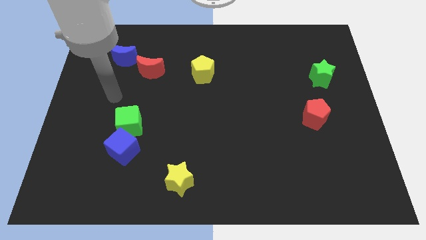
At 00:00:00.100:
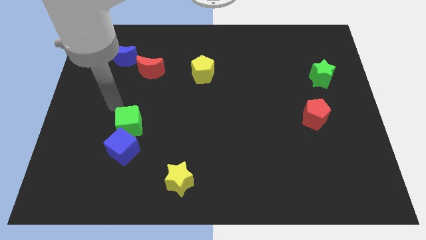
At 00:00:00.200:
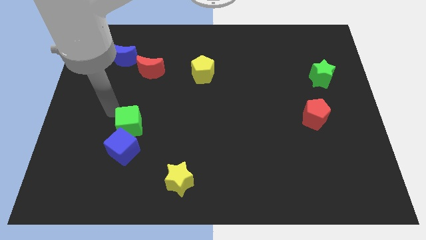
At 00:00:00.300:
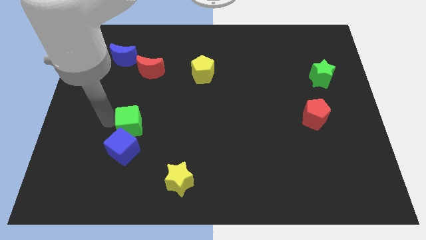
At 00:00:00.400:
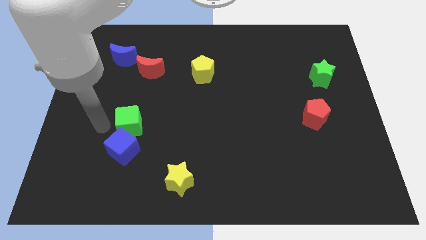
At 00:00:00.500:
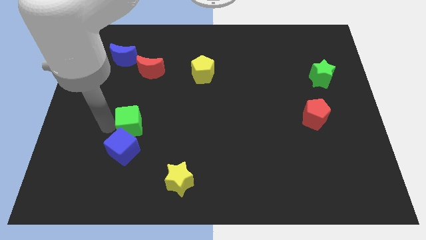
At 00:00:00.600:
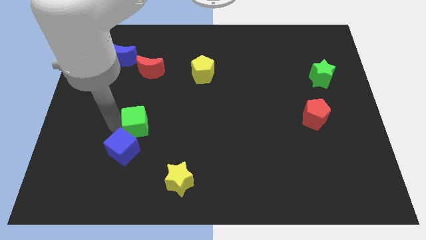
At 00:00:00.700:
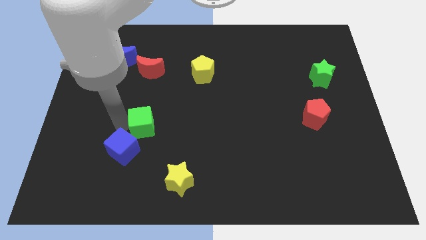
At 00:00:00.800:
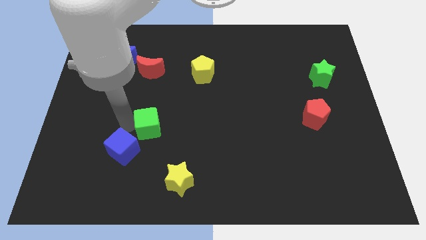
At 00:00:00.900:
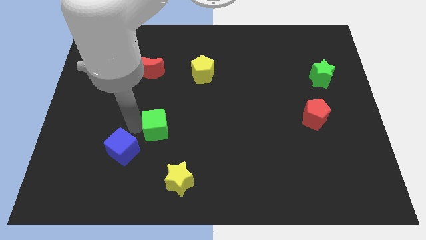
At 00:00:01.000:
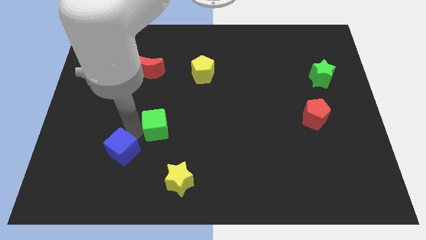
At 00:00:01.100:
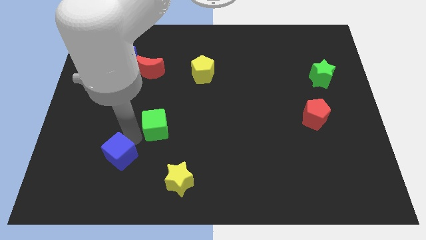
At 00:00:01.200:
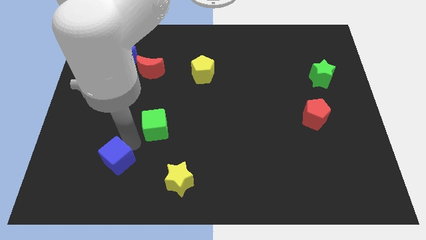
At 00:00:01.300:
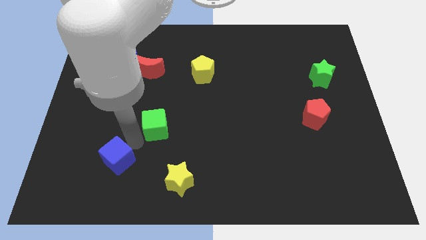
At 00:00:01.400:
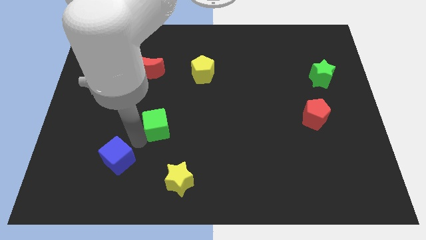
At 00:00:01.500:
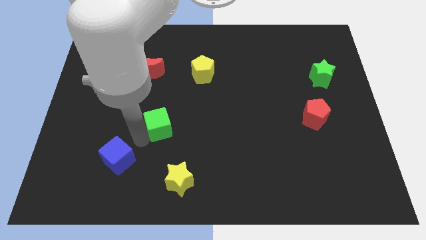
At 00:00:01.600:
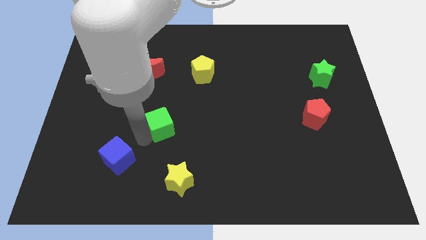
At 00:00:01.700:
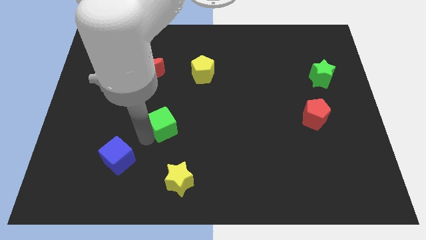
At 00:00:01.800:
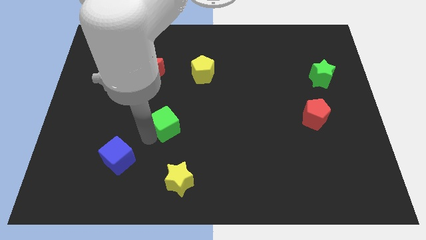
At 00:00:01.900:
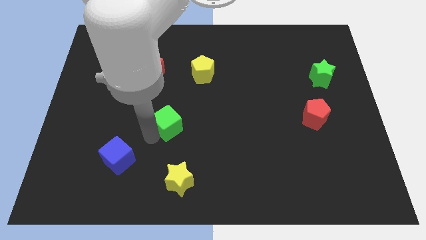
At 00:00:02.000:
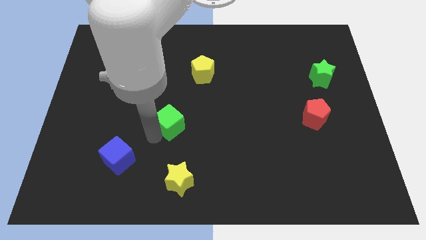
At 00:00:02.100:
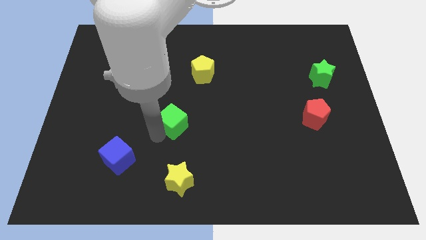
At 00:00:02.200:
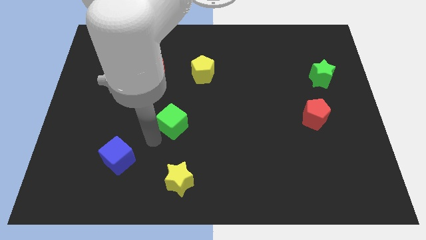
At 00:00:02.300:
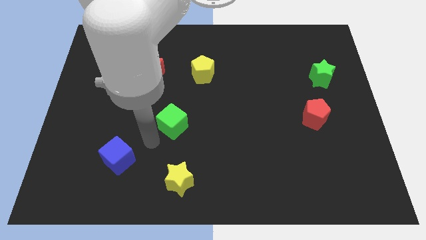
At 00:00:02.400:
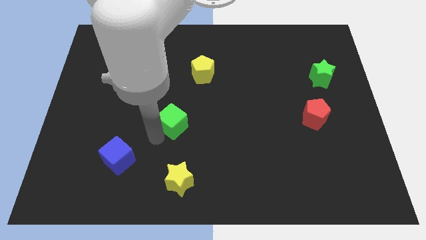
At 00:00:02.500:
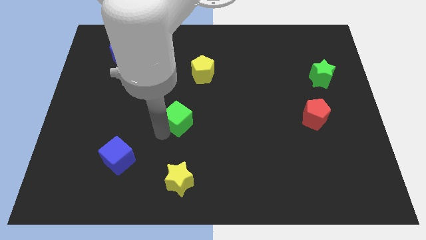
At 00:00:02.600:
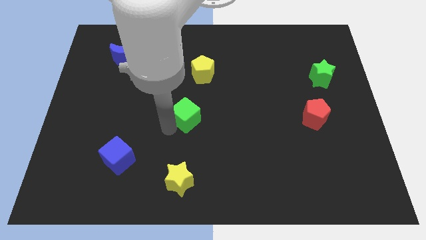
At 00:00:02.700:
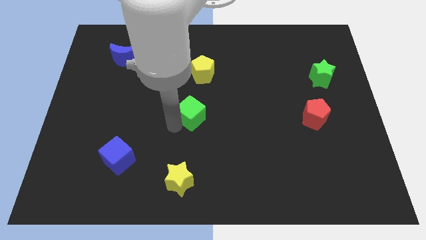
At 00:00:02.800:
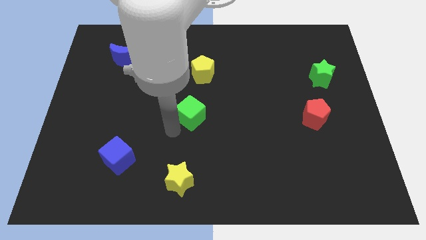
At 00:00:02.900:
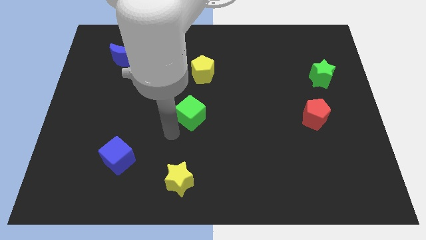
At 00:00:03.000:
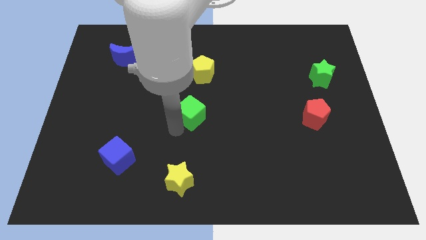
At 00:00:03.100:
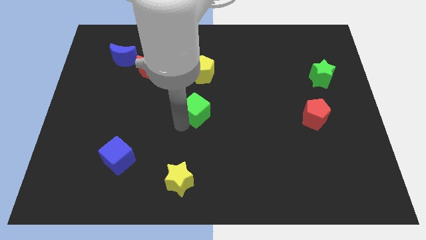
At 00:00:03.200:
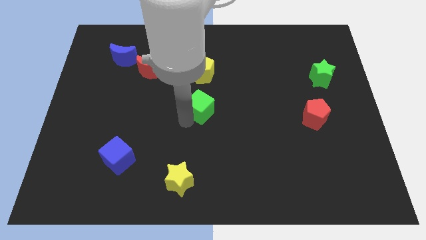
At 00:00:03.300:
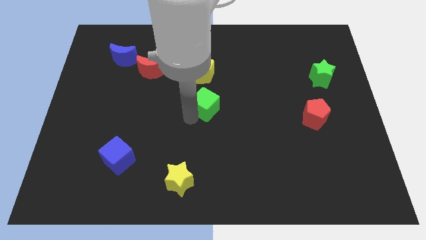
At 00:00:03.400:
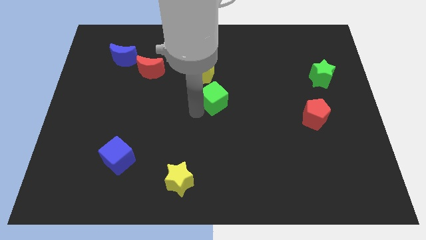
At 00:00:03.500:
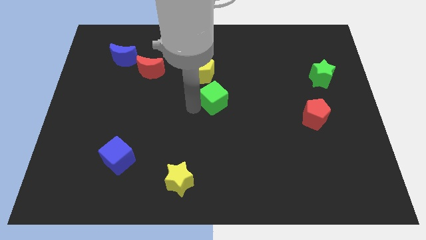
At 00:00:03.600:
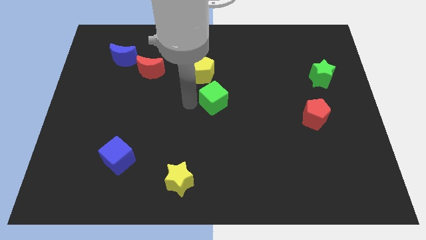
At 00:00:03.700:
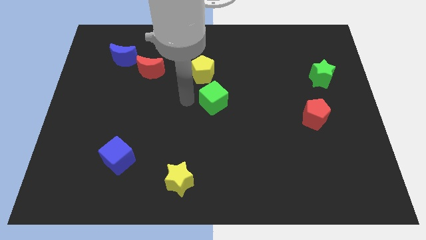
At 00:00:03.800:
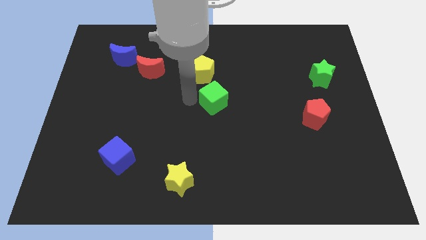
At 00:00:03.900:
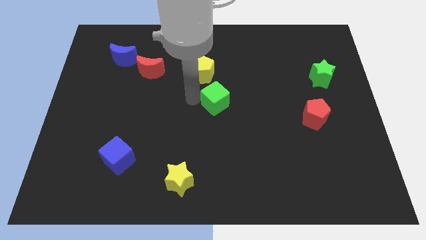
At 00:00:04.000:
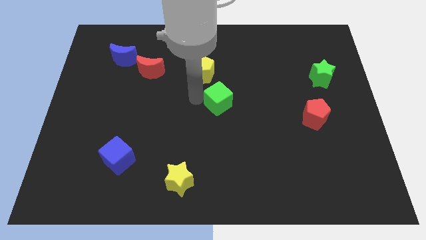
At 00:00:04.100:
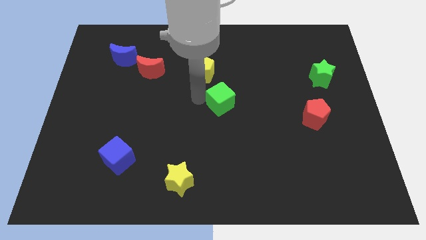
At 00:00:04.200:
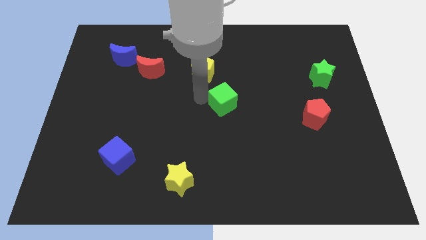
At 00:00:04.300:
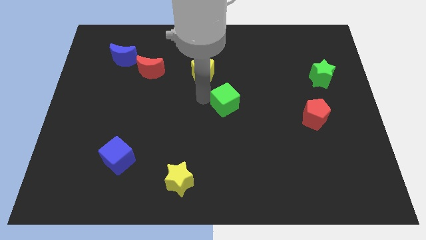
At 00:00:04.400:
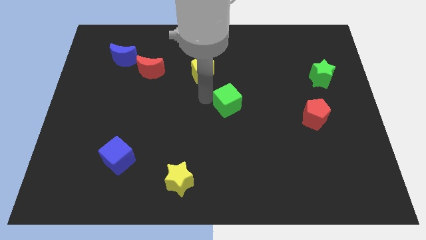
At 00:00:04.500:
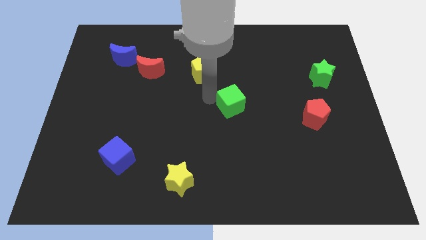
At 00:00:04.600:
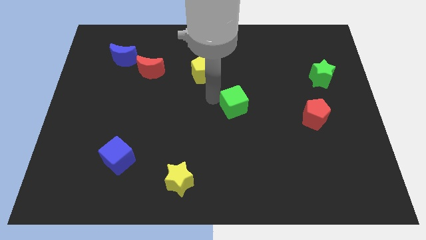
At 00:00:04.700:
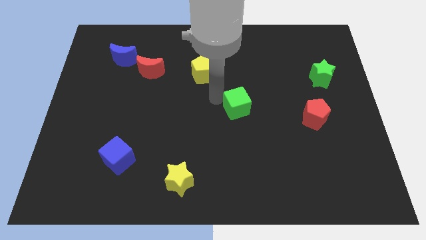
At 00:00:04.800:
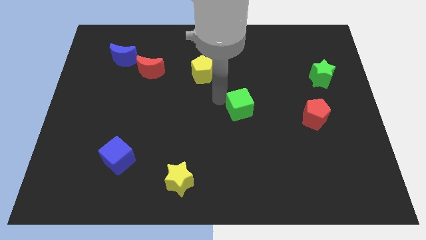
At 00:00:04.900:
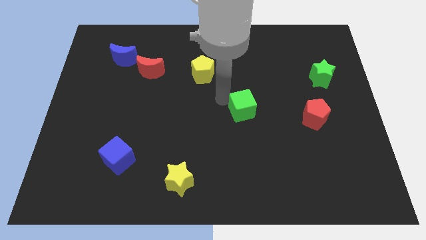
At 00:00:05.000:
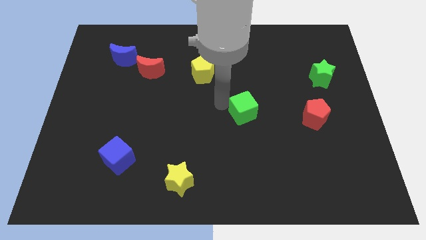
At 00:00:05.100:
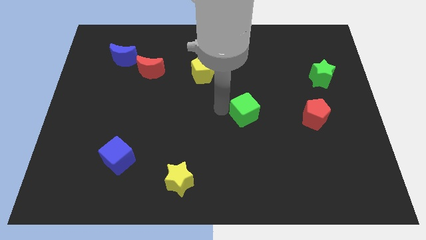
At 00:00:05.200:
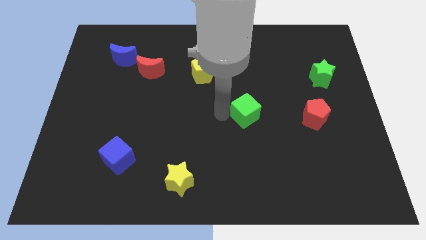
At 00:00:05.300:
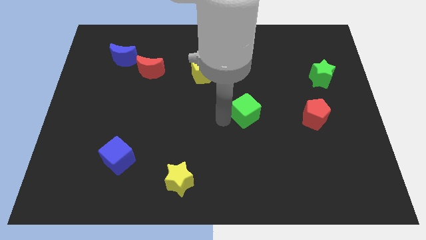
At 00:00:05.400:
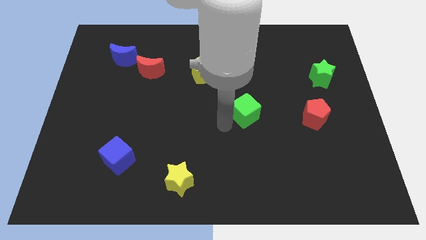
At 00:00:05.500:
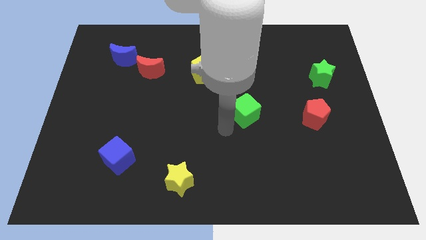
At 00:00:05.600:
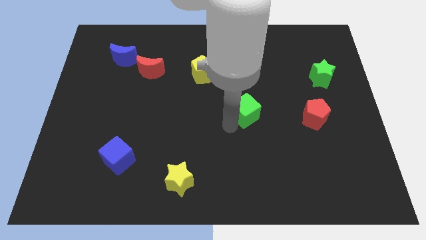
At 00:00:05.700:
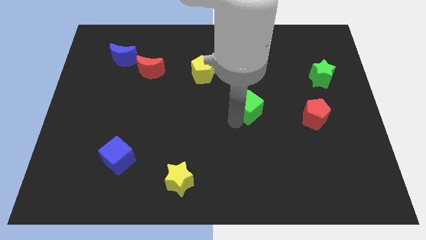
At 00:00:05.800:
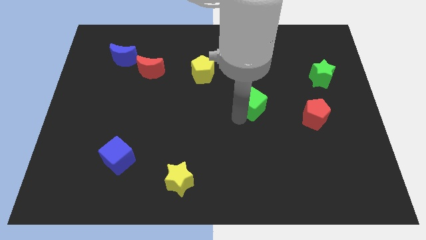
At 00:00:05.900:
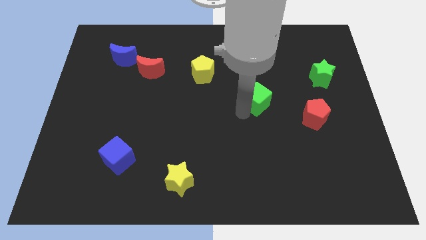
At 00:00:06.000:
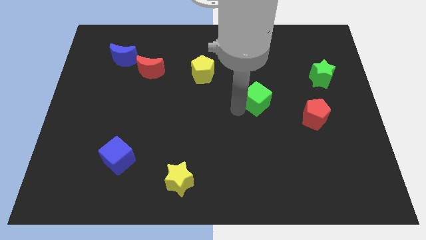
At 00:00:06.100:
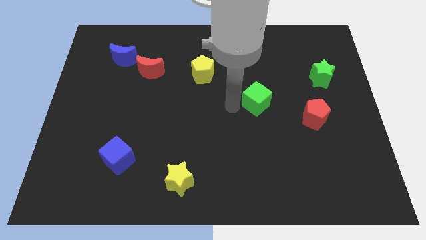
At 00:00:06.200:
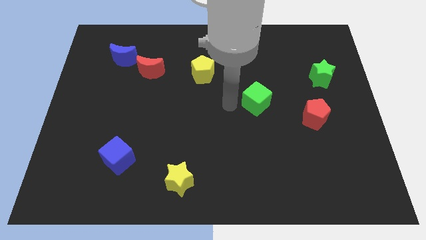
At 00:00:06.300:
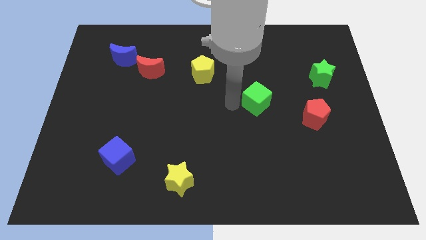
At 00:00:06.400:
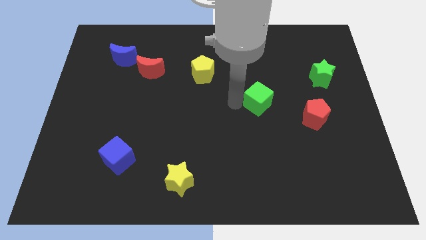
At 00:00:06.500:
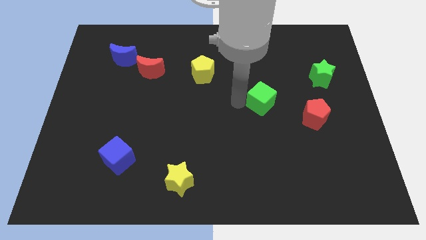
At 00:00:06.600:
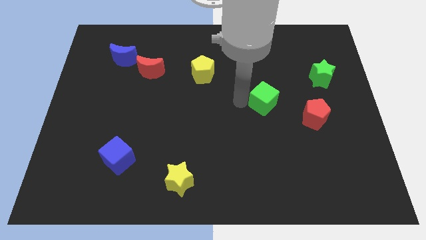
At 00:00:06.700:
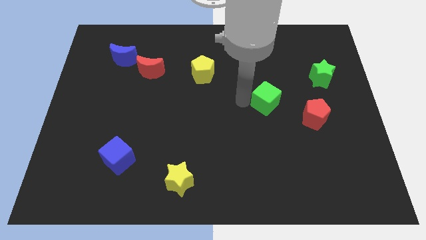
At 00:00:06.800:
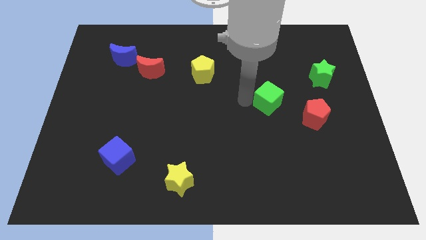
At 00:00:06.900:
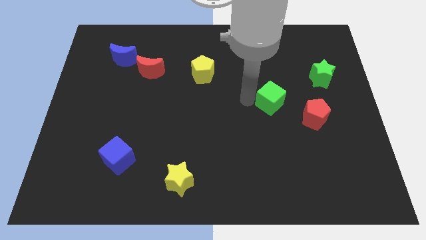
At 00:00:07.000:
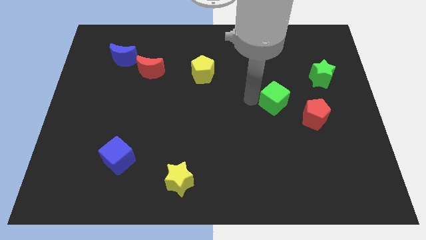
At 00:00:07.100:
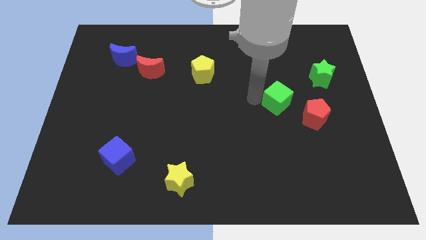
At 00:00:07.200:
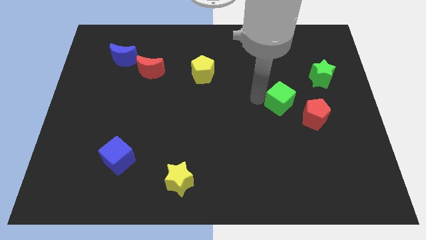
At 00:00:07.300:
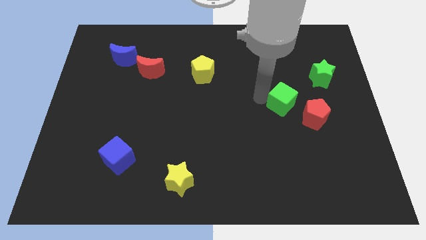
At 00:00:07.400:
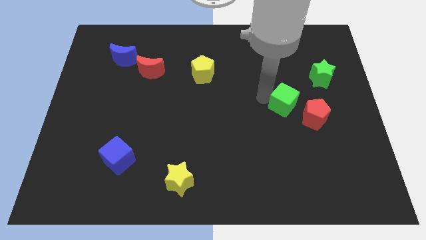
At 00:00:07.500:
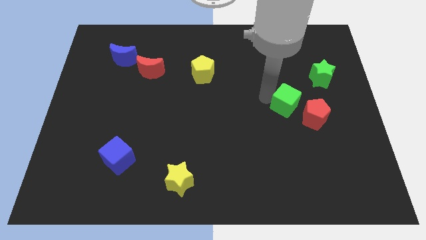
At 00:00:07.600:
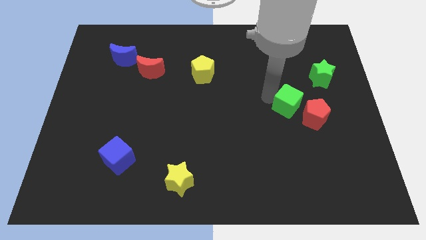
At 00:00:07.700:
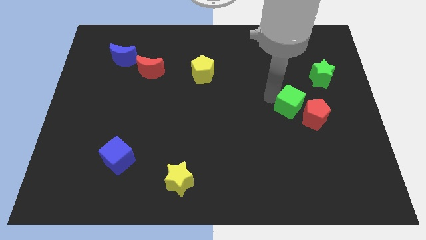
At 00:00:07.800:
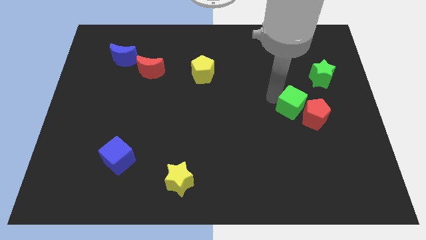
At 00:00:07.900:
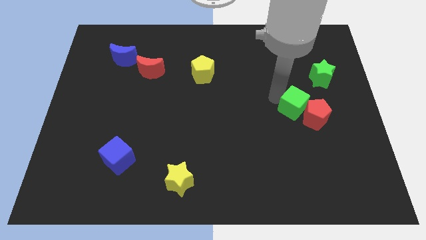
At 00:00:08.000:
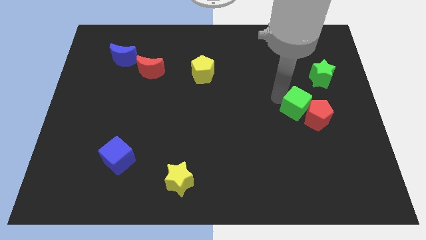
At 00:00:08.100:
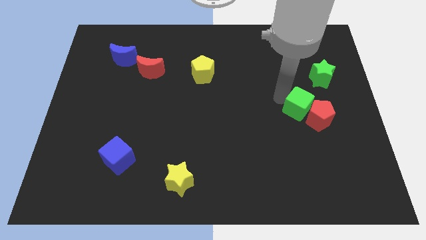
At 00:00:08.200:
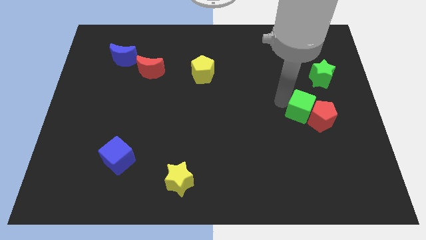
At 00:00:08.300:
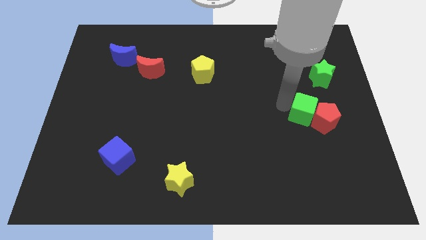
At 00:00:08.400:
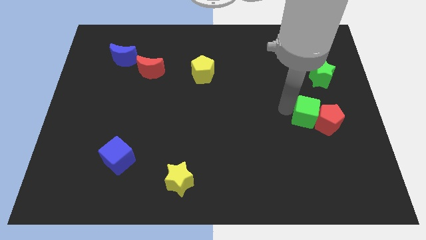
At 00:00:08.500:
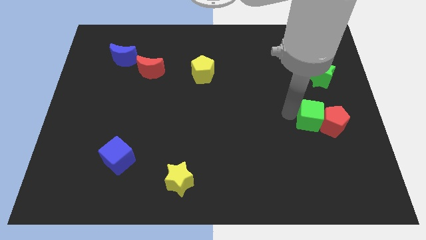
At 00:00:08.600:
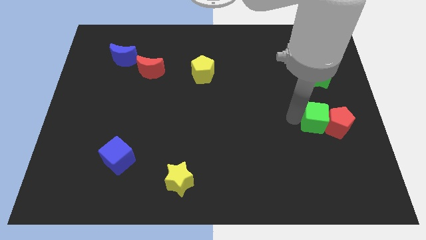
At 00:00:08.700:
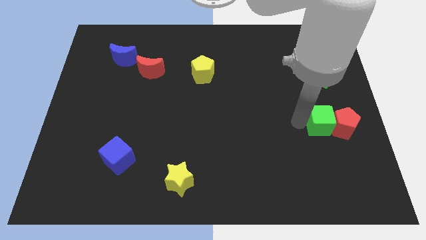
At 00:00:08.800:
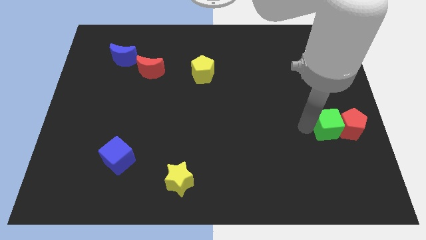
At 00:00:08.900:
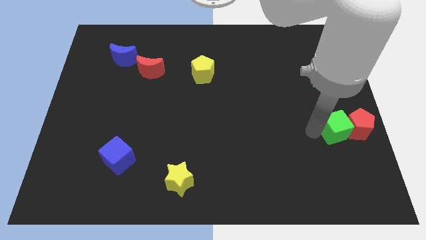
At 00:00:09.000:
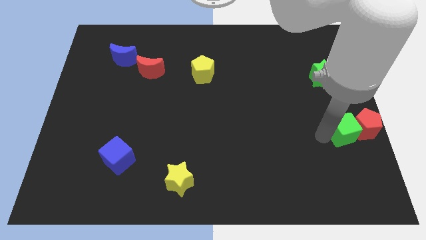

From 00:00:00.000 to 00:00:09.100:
push the green cube to the right side of the board
